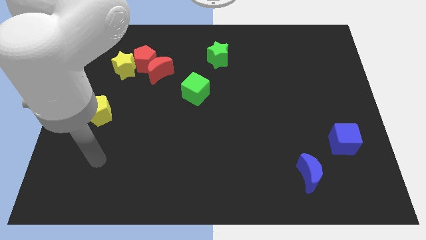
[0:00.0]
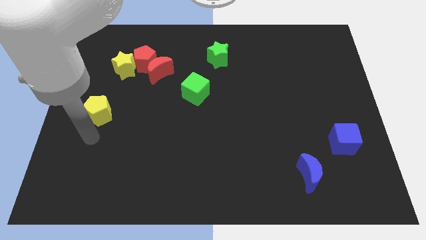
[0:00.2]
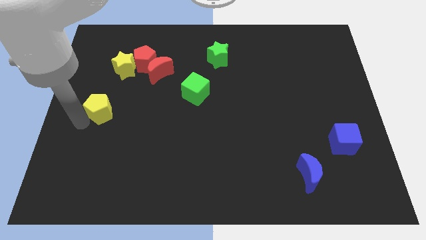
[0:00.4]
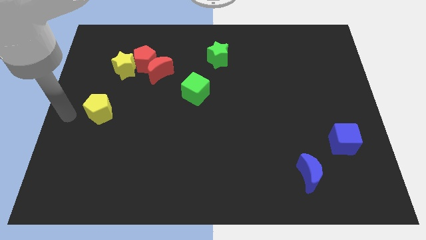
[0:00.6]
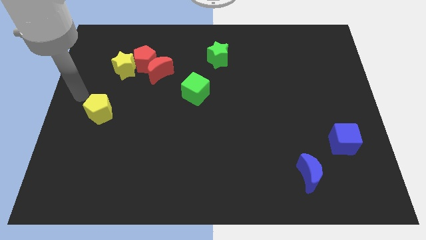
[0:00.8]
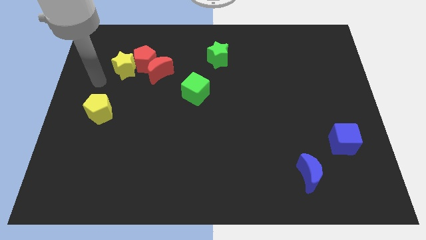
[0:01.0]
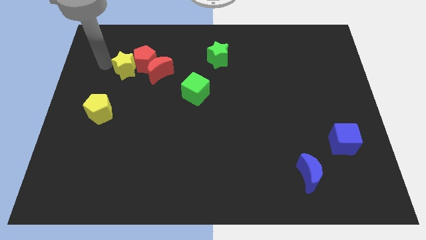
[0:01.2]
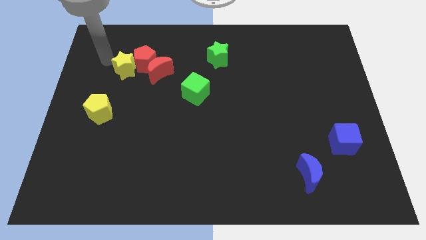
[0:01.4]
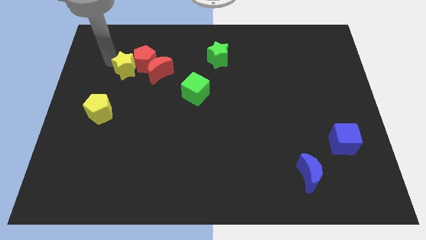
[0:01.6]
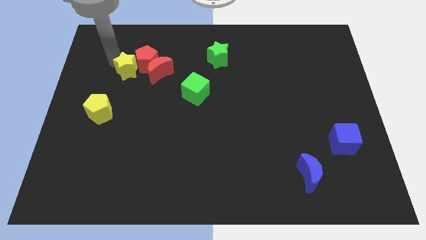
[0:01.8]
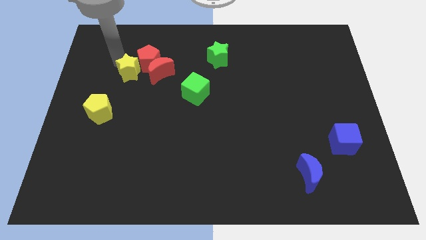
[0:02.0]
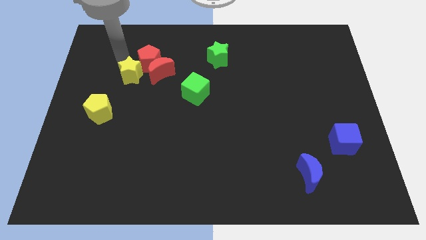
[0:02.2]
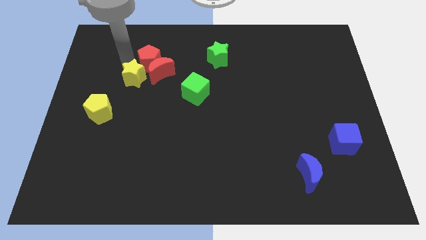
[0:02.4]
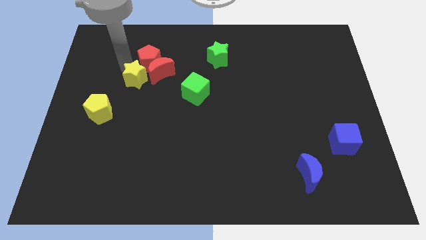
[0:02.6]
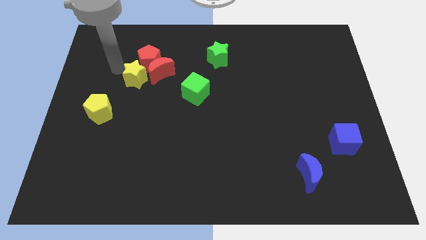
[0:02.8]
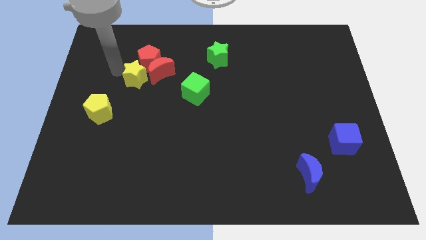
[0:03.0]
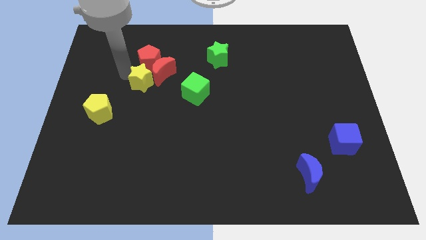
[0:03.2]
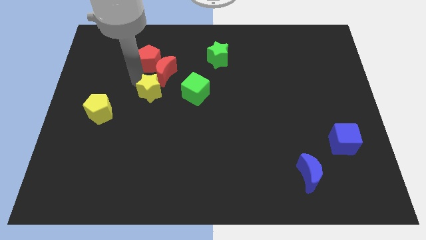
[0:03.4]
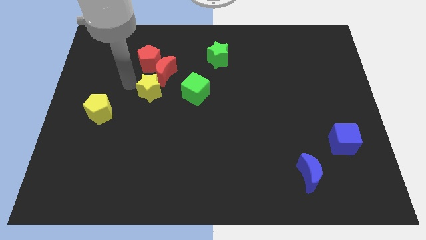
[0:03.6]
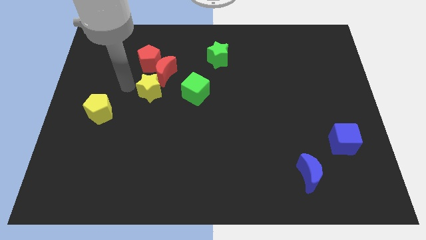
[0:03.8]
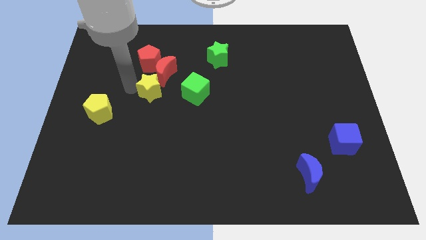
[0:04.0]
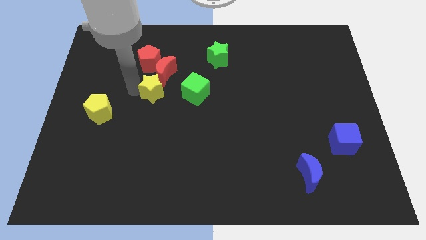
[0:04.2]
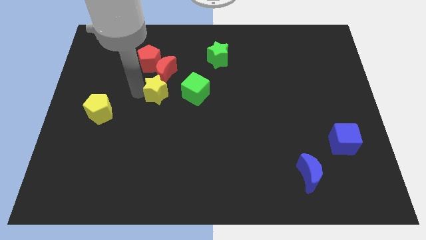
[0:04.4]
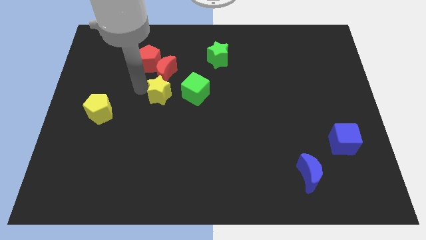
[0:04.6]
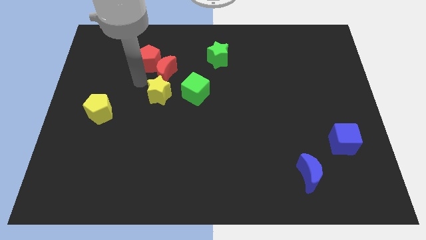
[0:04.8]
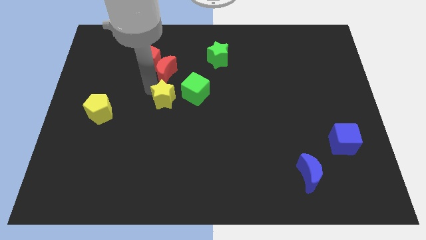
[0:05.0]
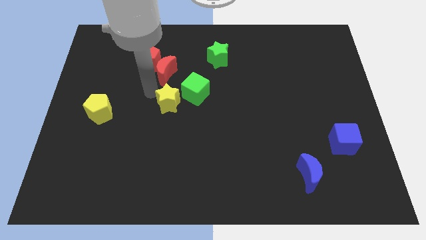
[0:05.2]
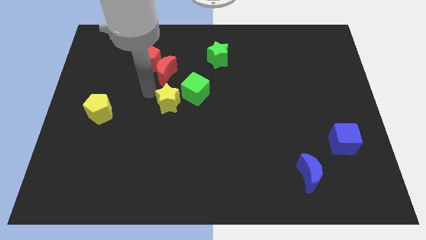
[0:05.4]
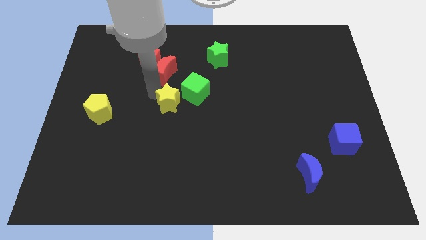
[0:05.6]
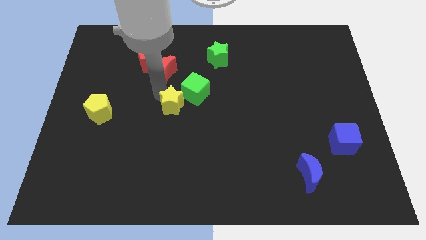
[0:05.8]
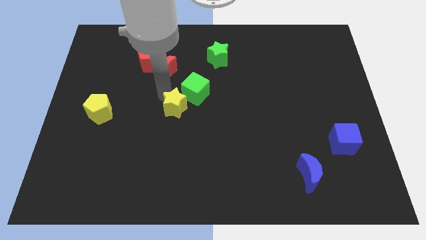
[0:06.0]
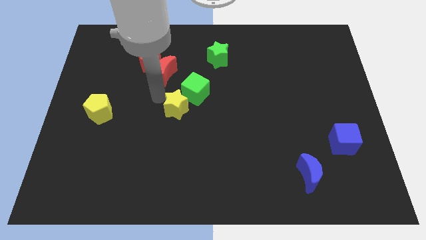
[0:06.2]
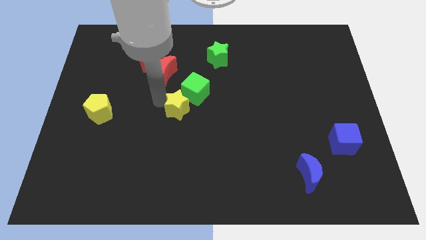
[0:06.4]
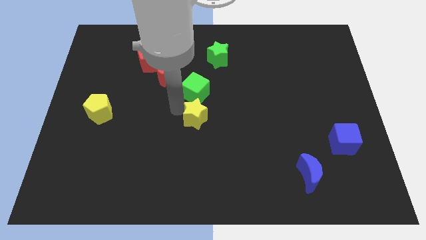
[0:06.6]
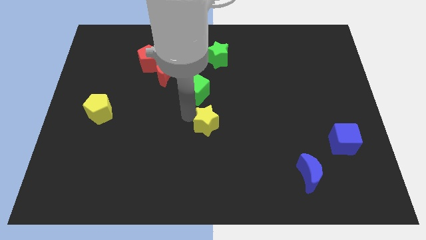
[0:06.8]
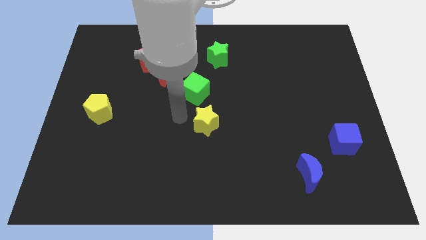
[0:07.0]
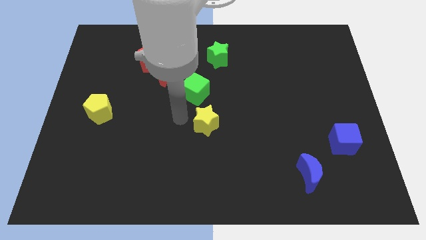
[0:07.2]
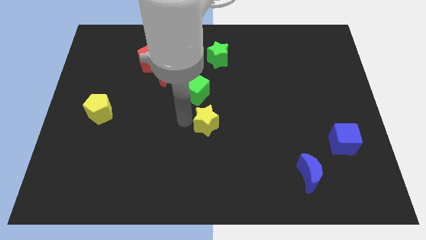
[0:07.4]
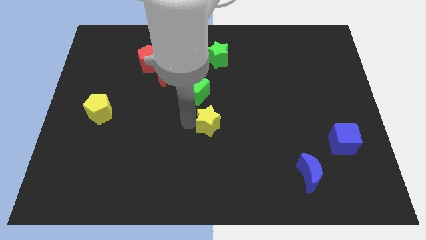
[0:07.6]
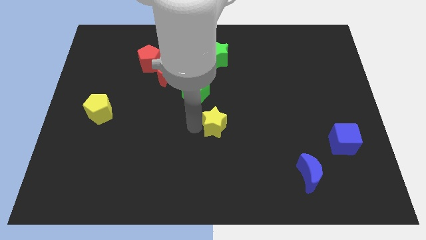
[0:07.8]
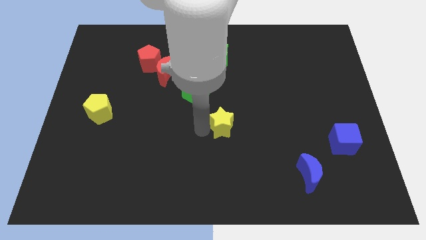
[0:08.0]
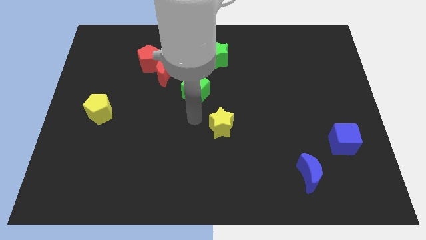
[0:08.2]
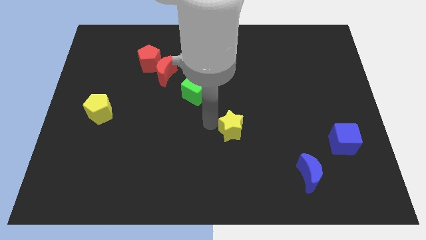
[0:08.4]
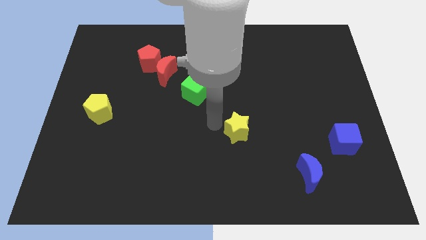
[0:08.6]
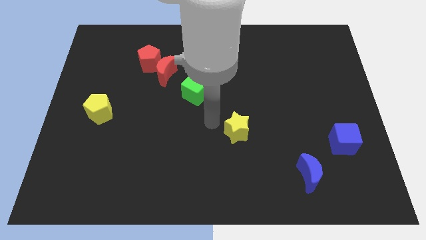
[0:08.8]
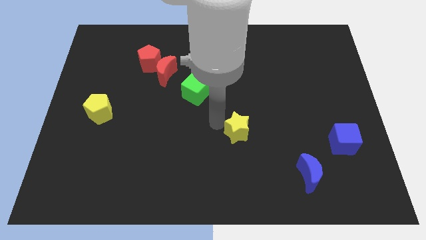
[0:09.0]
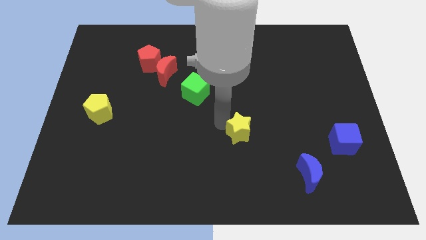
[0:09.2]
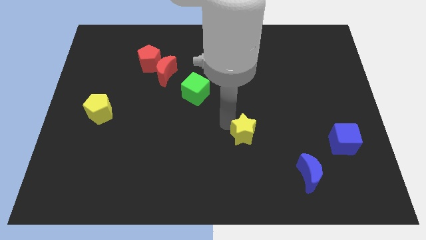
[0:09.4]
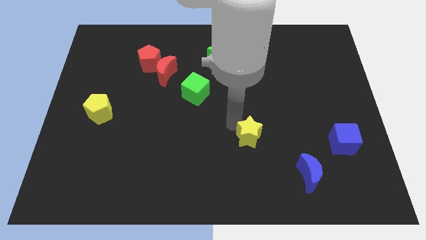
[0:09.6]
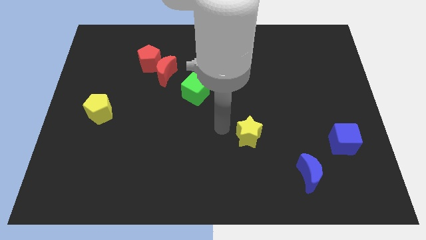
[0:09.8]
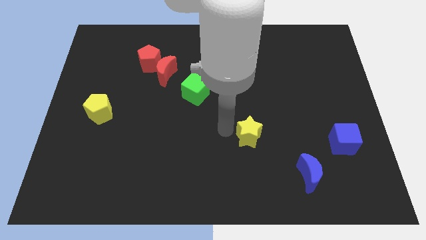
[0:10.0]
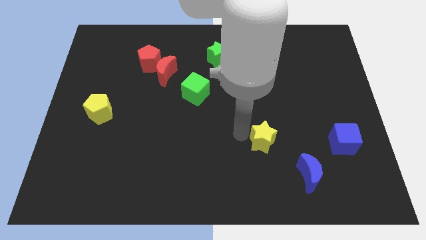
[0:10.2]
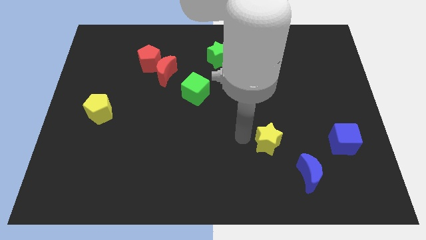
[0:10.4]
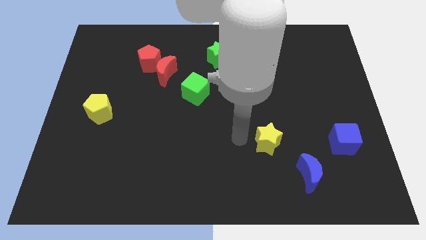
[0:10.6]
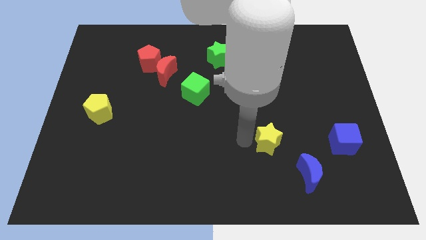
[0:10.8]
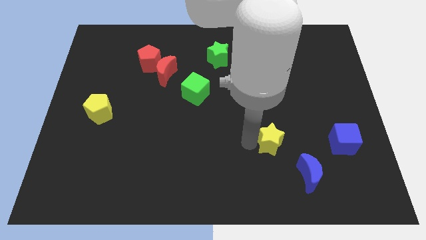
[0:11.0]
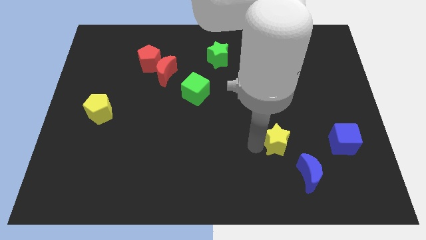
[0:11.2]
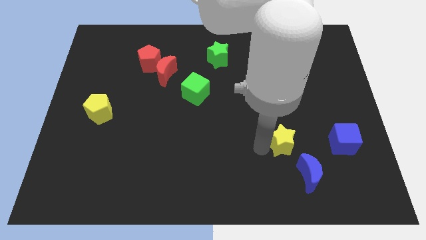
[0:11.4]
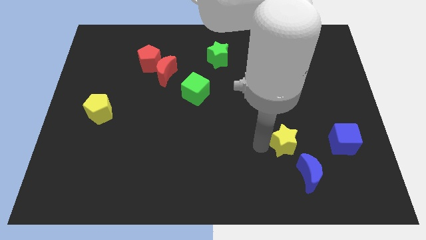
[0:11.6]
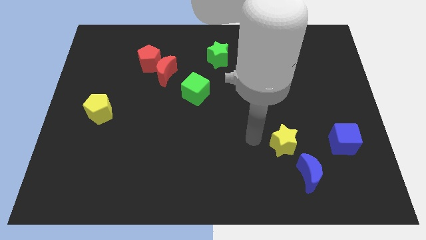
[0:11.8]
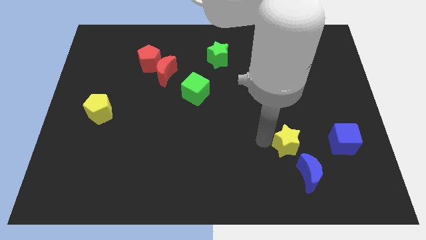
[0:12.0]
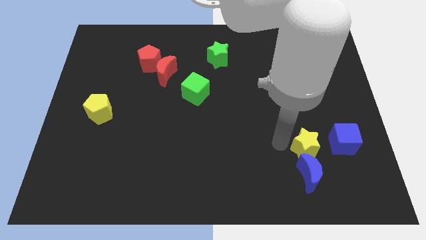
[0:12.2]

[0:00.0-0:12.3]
push the yellow star to the top right side of the blue moon

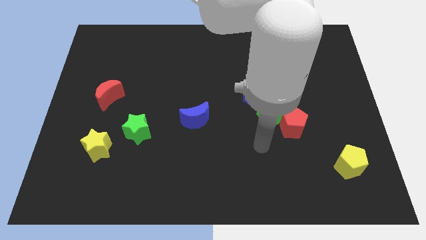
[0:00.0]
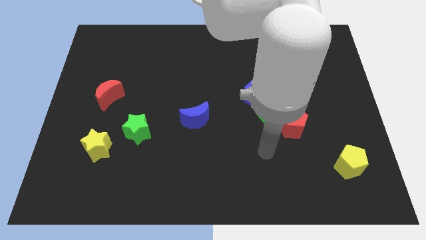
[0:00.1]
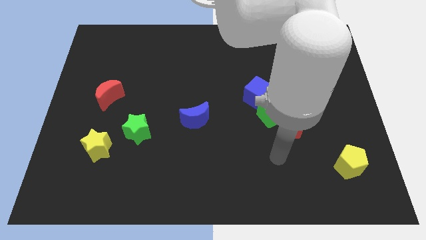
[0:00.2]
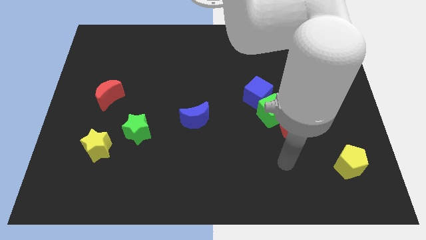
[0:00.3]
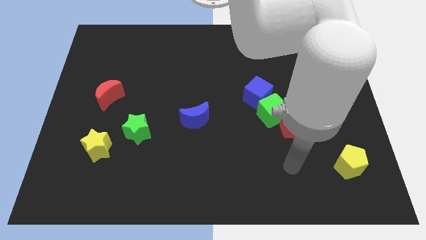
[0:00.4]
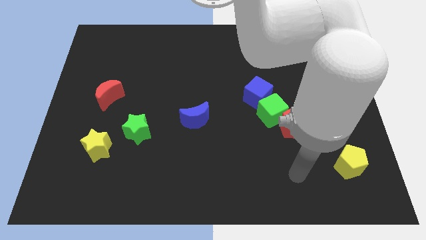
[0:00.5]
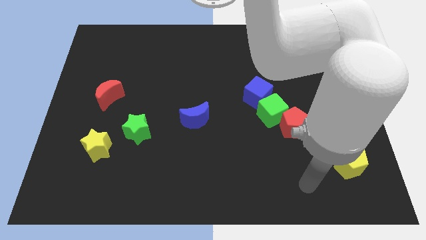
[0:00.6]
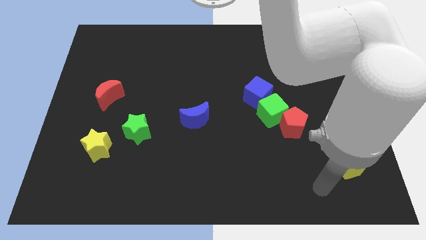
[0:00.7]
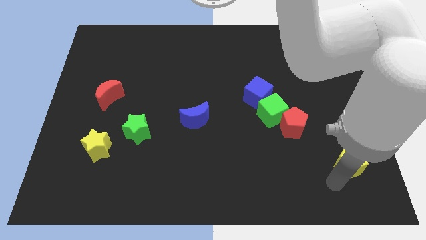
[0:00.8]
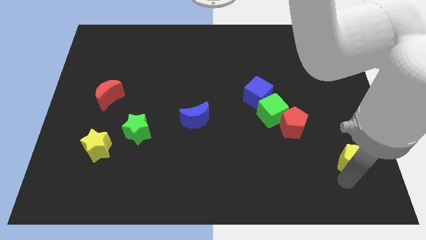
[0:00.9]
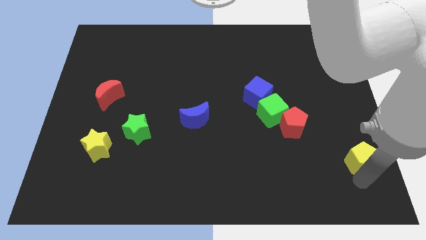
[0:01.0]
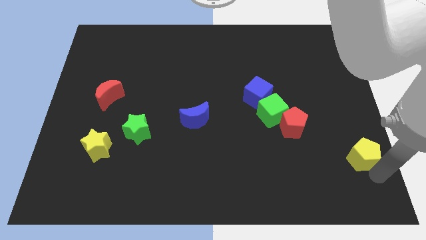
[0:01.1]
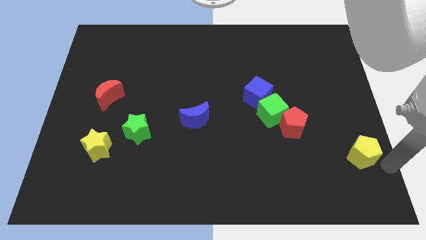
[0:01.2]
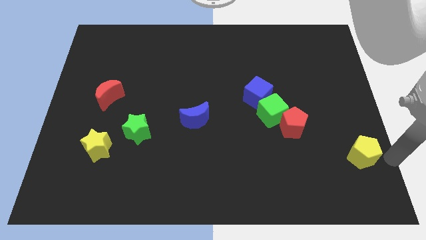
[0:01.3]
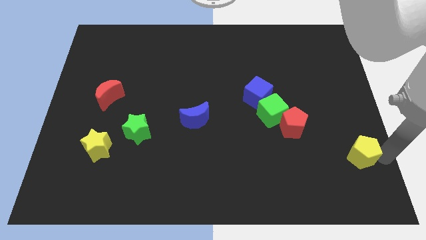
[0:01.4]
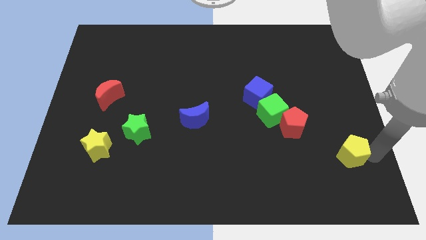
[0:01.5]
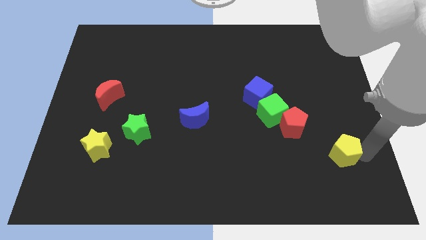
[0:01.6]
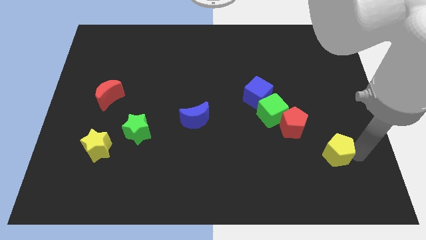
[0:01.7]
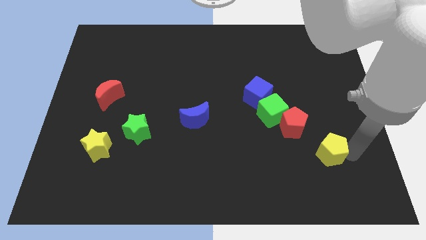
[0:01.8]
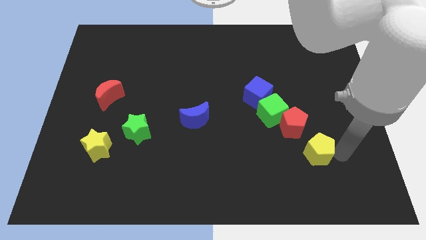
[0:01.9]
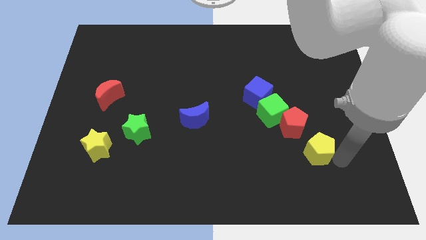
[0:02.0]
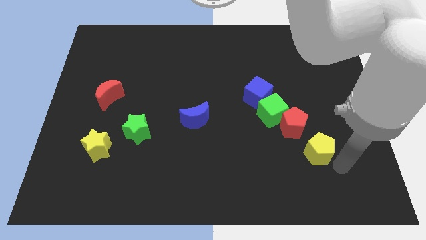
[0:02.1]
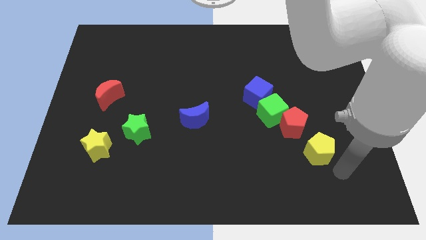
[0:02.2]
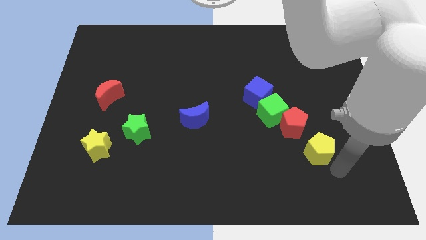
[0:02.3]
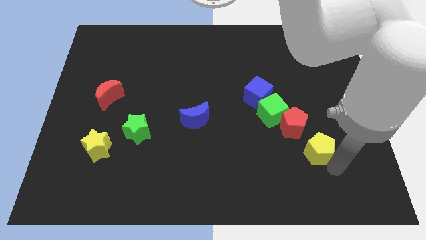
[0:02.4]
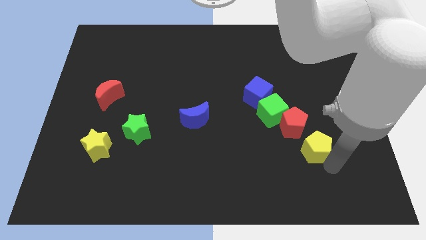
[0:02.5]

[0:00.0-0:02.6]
put the yellow pentagon diagonally down and to the right of the green cube
